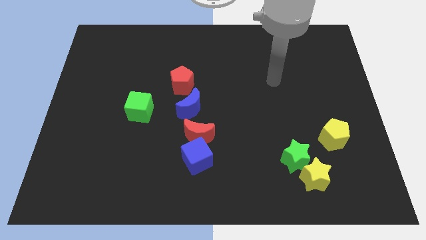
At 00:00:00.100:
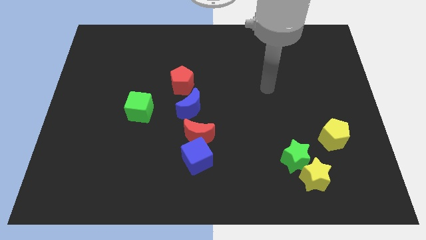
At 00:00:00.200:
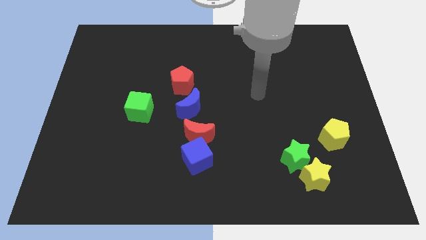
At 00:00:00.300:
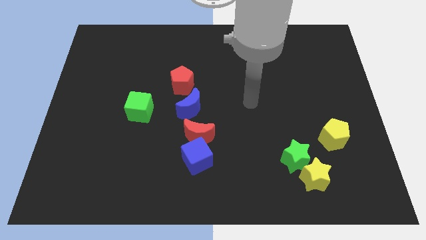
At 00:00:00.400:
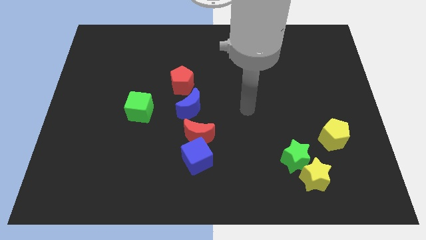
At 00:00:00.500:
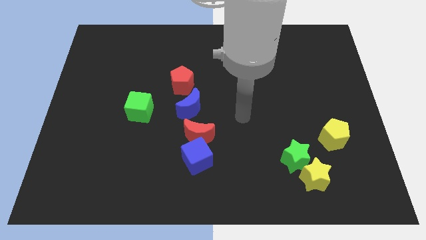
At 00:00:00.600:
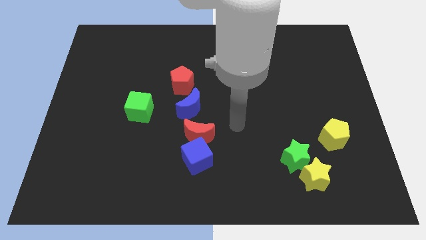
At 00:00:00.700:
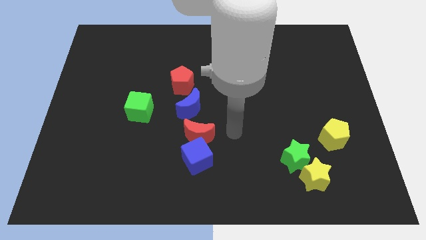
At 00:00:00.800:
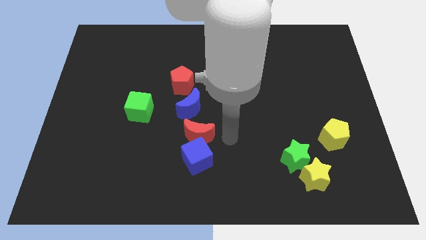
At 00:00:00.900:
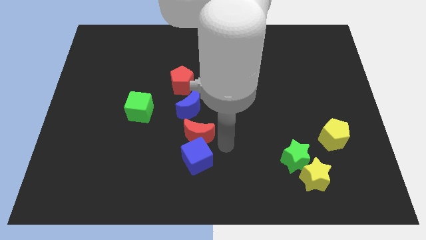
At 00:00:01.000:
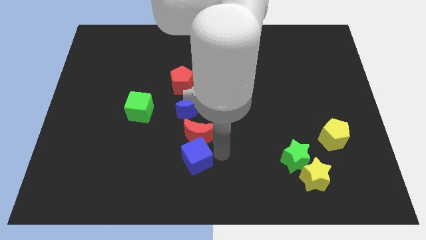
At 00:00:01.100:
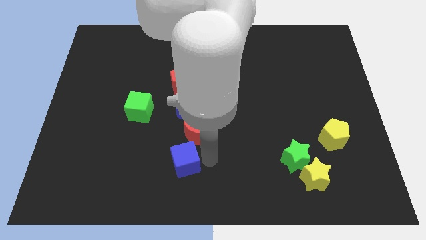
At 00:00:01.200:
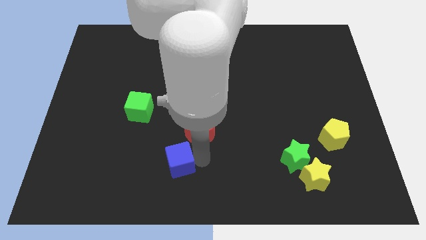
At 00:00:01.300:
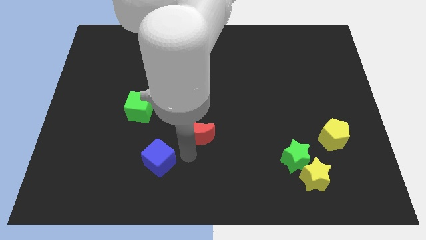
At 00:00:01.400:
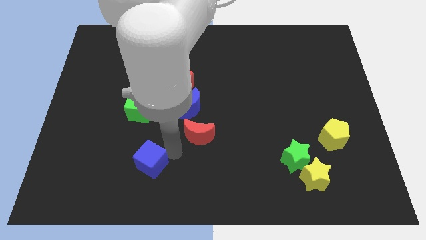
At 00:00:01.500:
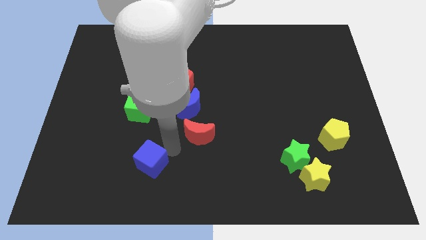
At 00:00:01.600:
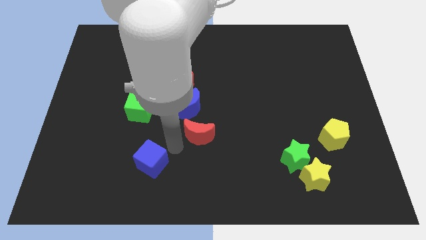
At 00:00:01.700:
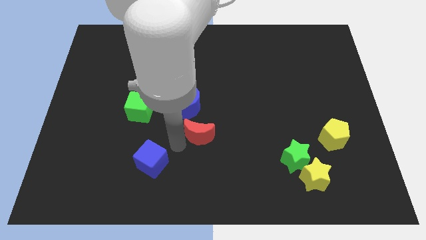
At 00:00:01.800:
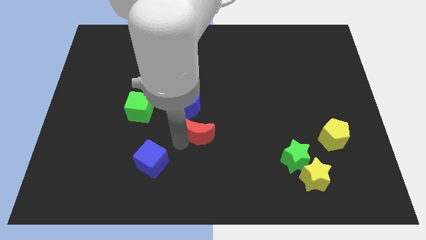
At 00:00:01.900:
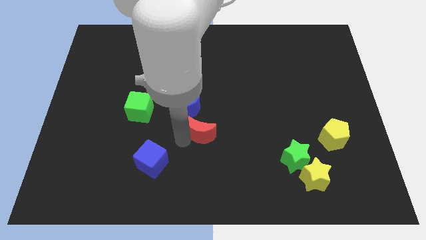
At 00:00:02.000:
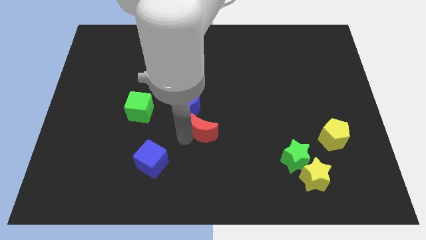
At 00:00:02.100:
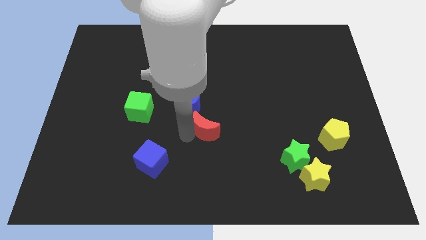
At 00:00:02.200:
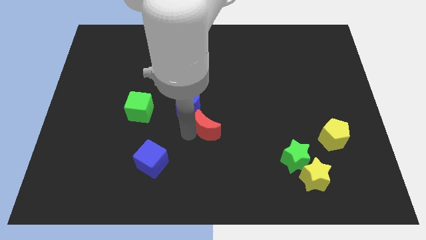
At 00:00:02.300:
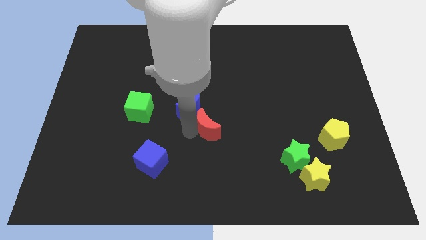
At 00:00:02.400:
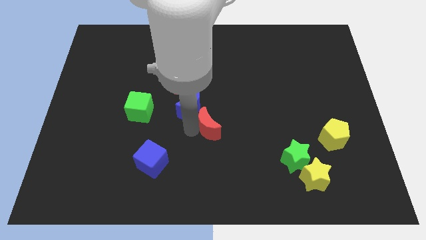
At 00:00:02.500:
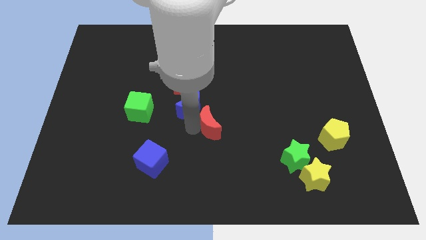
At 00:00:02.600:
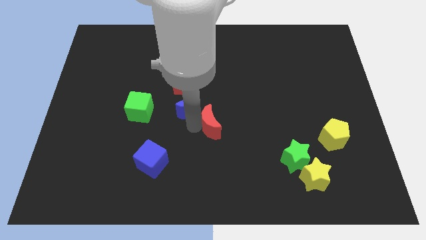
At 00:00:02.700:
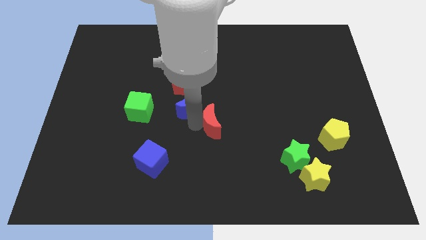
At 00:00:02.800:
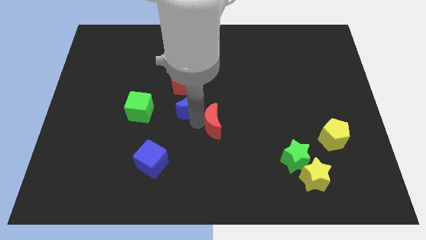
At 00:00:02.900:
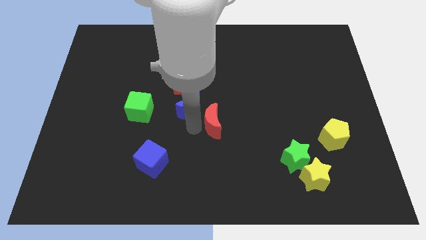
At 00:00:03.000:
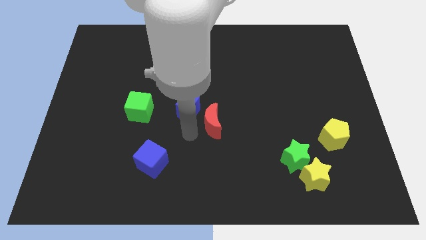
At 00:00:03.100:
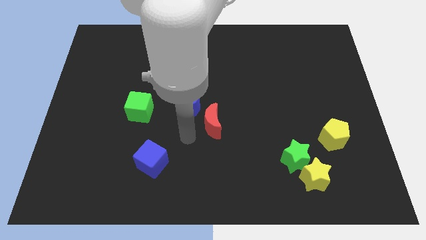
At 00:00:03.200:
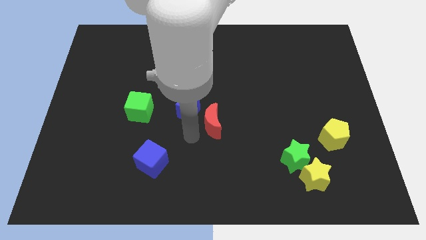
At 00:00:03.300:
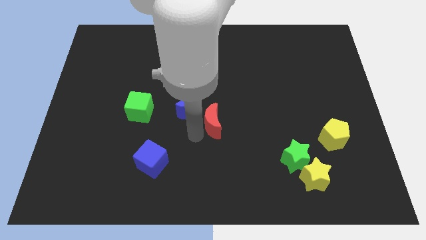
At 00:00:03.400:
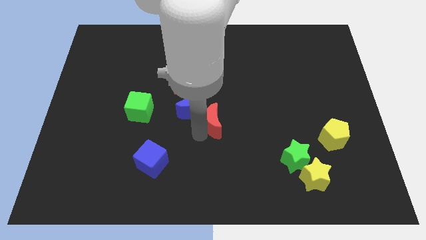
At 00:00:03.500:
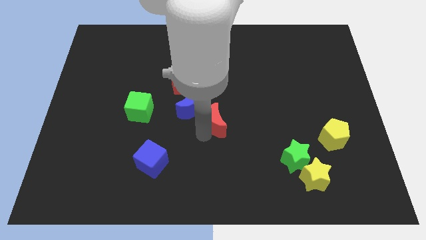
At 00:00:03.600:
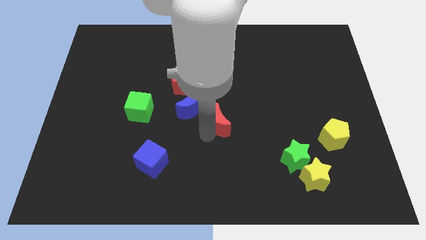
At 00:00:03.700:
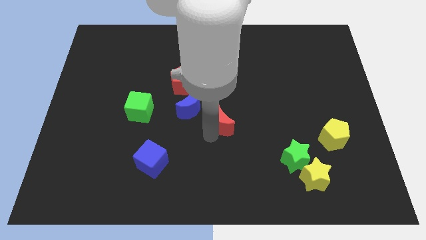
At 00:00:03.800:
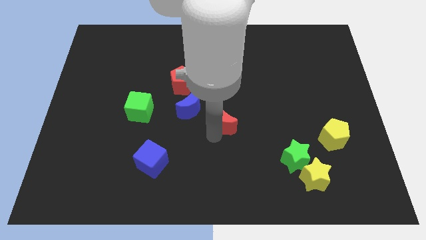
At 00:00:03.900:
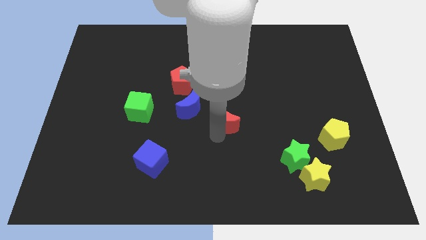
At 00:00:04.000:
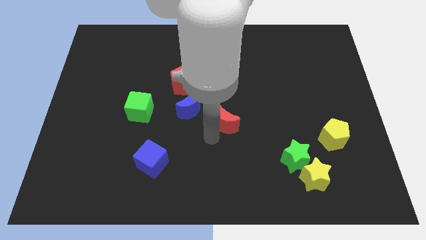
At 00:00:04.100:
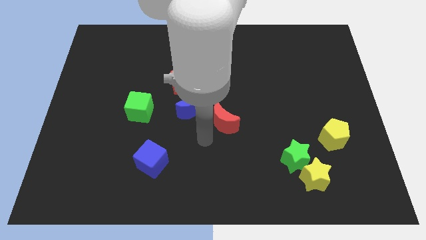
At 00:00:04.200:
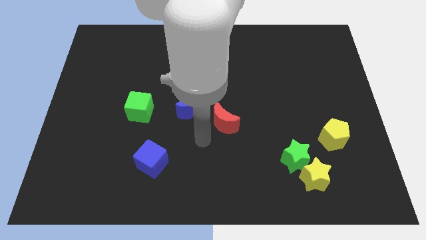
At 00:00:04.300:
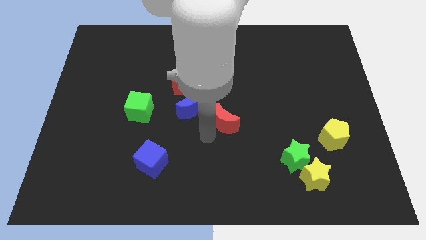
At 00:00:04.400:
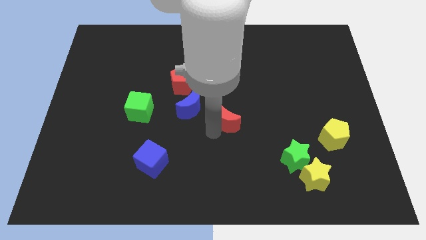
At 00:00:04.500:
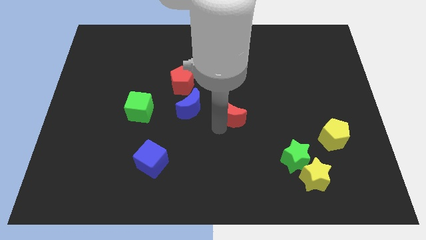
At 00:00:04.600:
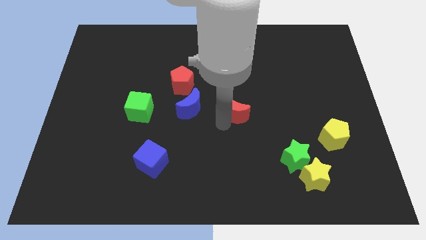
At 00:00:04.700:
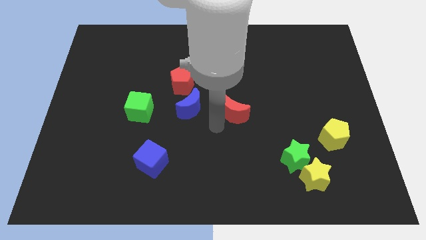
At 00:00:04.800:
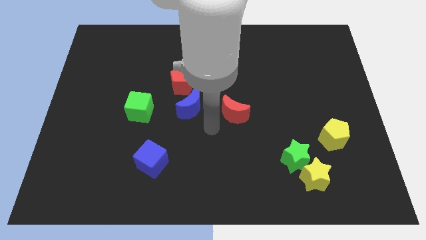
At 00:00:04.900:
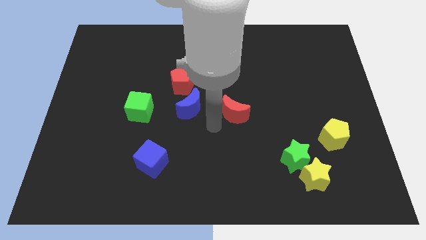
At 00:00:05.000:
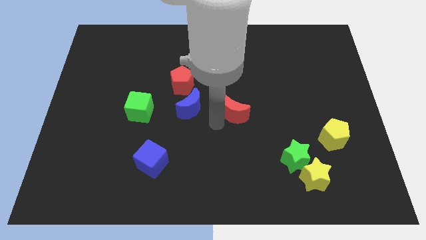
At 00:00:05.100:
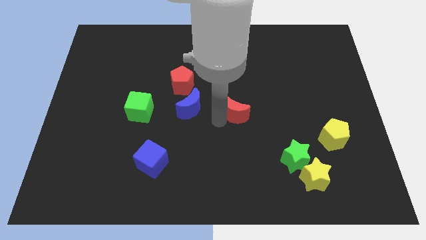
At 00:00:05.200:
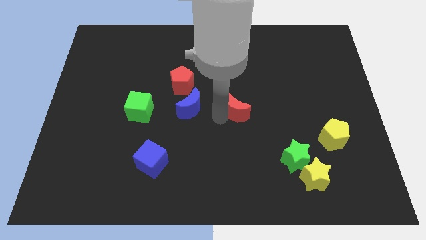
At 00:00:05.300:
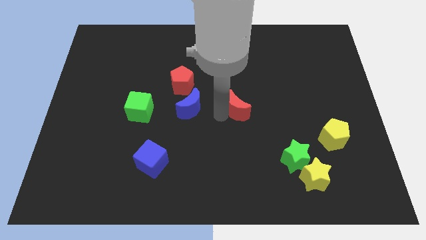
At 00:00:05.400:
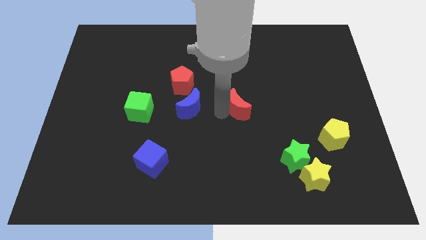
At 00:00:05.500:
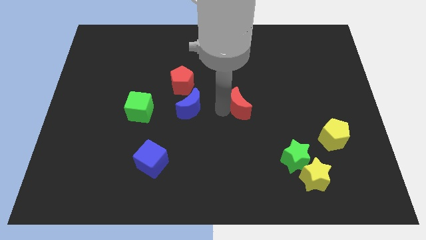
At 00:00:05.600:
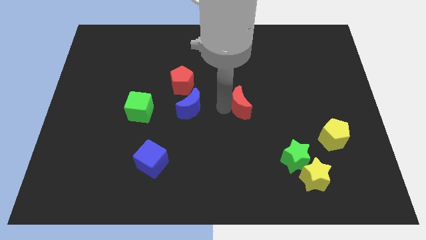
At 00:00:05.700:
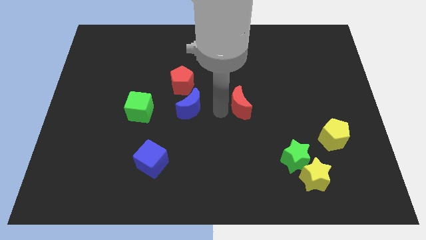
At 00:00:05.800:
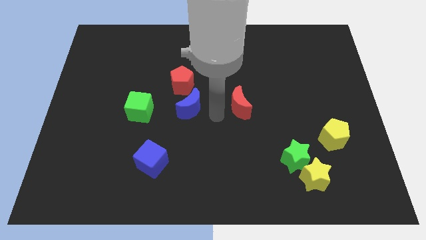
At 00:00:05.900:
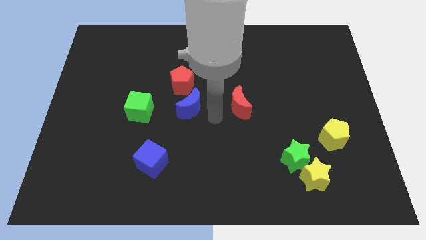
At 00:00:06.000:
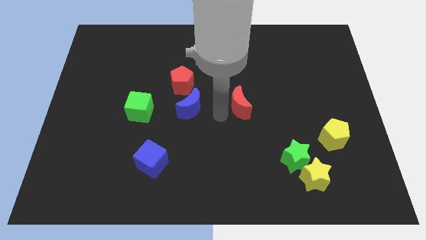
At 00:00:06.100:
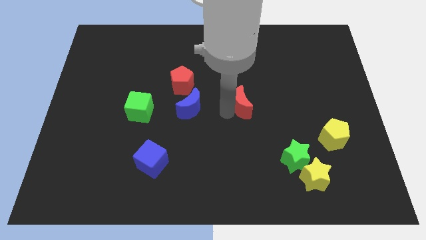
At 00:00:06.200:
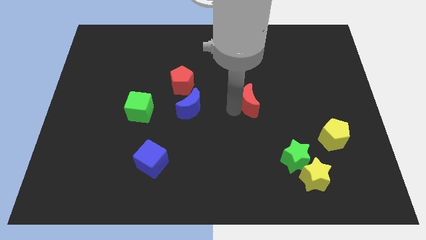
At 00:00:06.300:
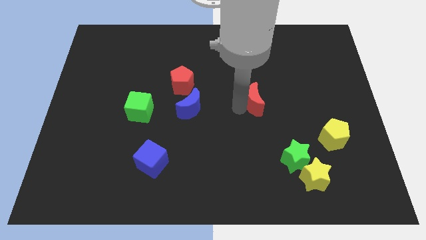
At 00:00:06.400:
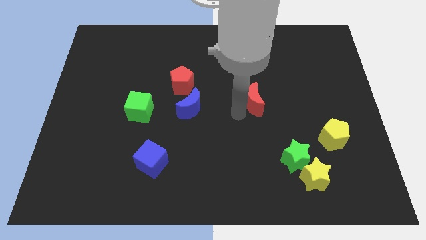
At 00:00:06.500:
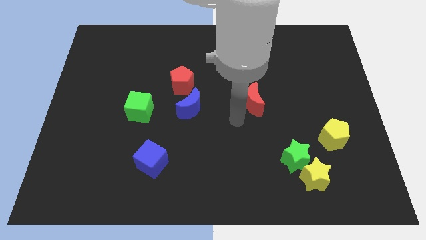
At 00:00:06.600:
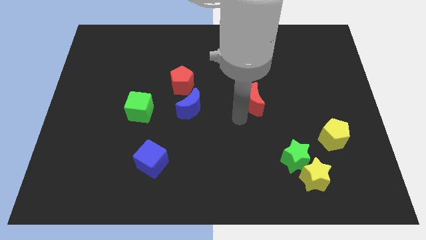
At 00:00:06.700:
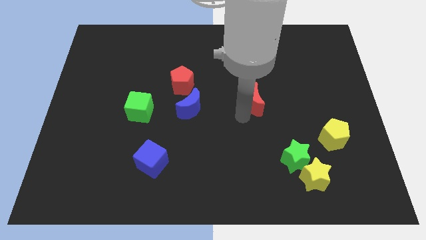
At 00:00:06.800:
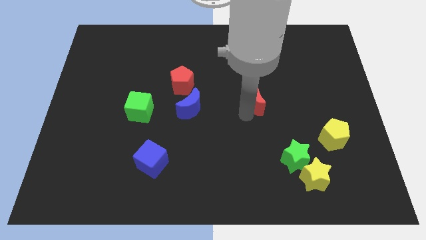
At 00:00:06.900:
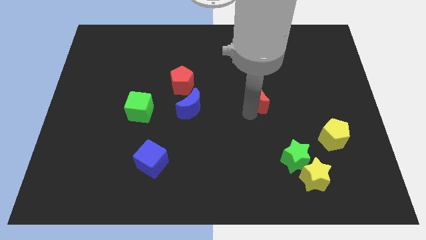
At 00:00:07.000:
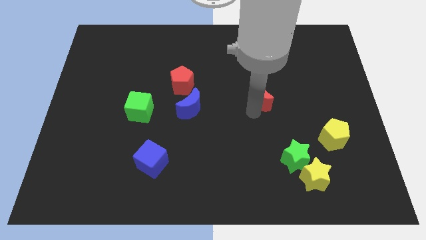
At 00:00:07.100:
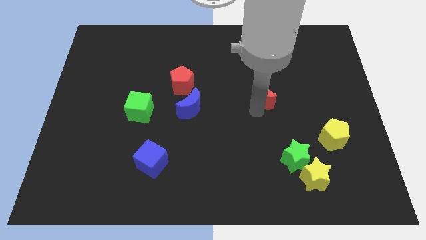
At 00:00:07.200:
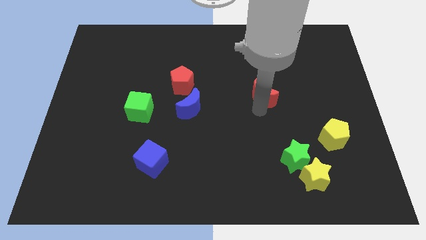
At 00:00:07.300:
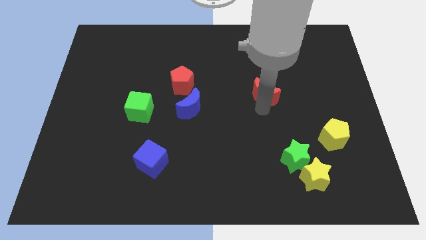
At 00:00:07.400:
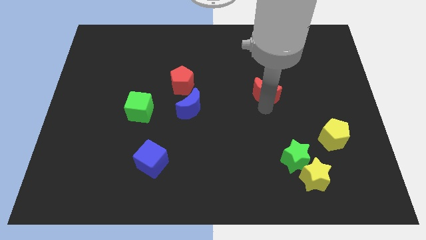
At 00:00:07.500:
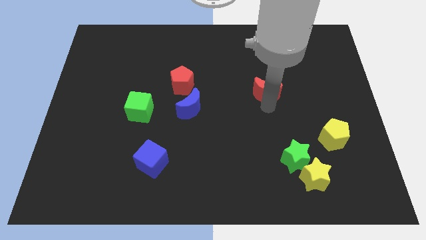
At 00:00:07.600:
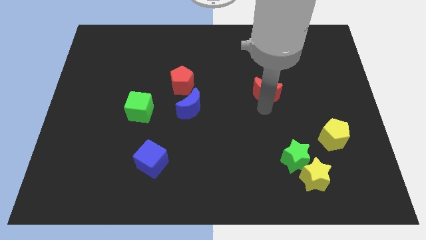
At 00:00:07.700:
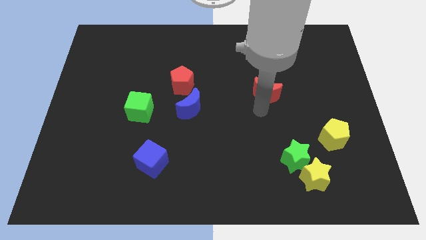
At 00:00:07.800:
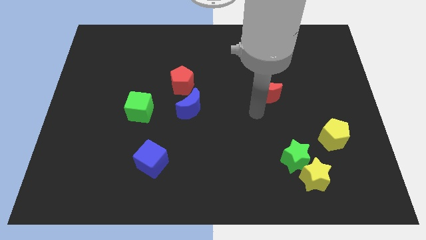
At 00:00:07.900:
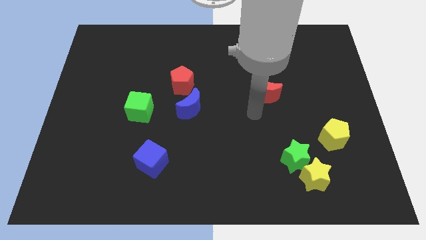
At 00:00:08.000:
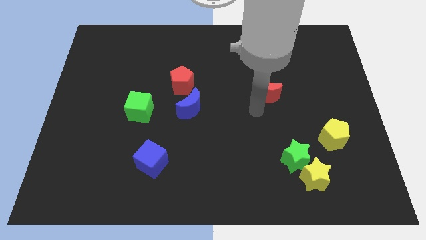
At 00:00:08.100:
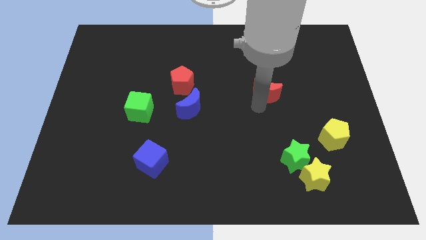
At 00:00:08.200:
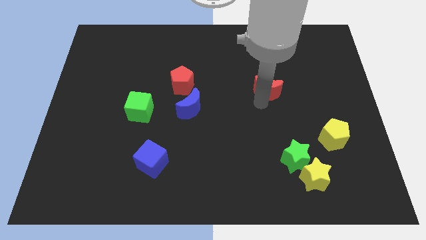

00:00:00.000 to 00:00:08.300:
slide the red moon diagonally upwards and right
